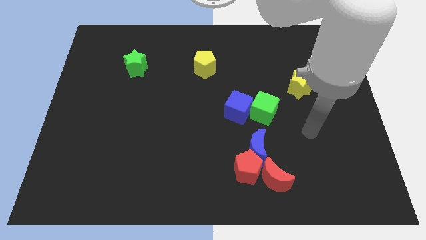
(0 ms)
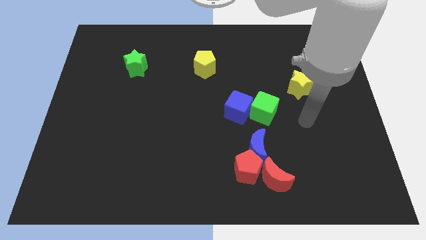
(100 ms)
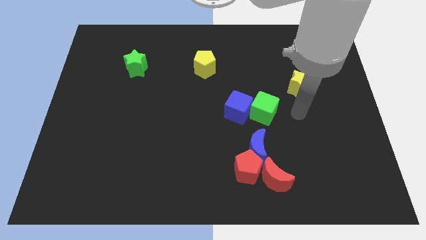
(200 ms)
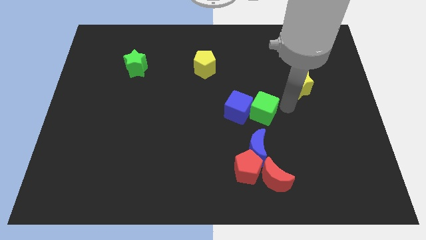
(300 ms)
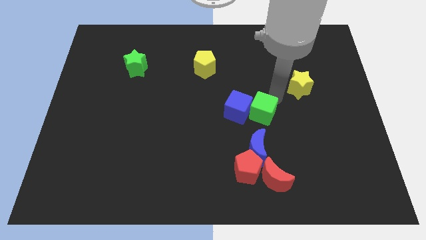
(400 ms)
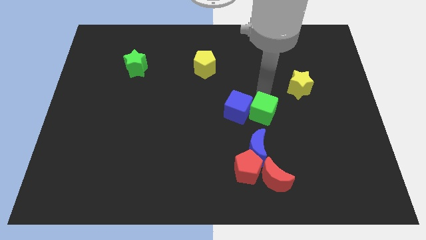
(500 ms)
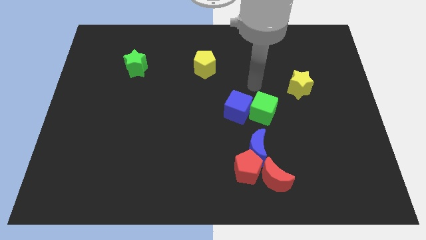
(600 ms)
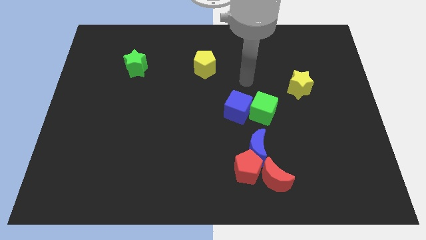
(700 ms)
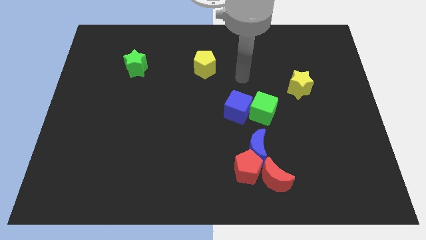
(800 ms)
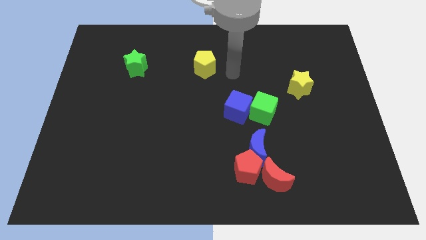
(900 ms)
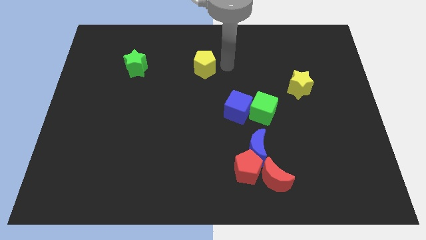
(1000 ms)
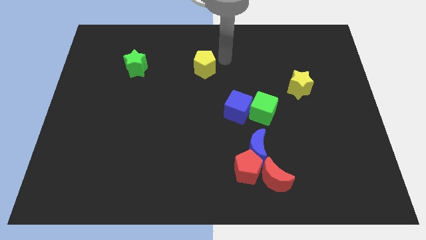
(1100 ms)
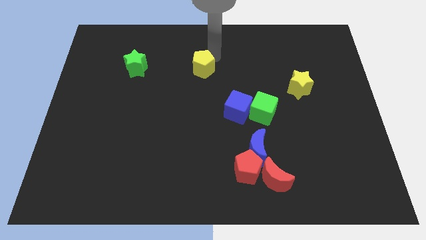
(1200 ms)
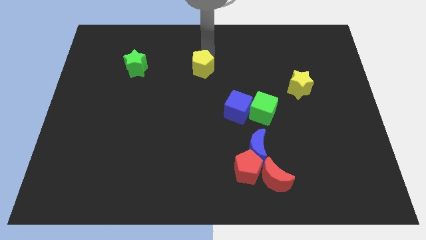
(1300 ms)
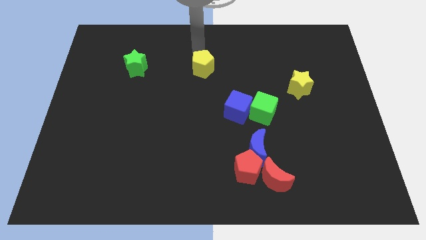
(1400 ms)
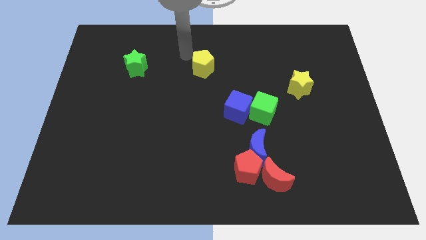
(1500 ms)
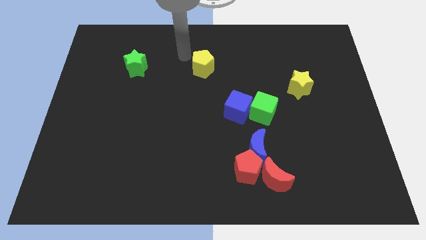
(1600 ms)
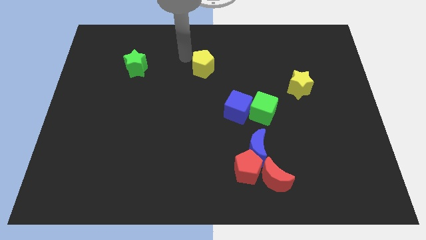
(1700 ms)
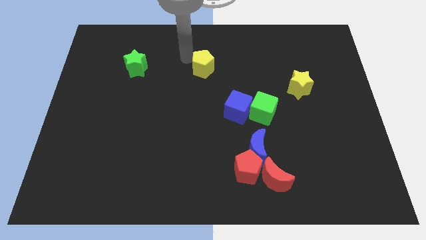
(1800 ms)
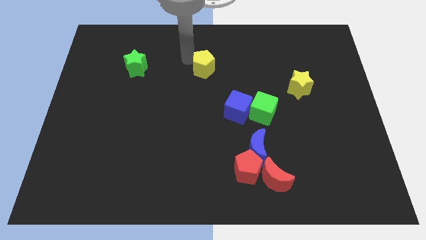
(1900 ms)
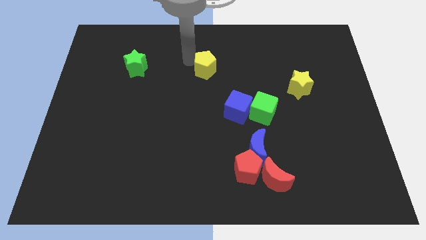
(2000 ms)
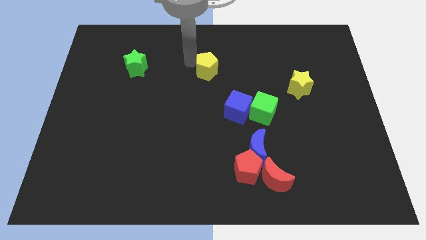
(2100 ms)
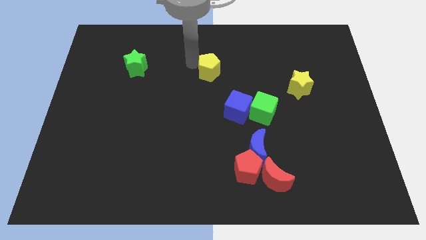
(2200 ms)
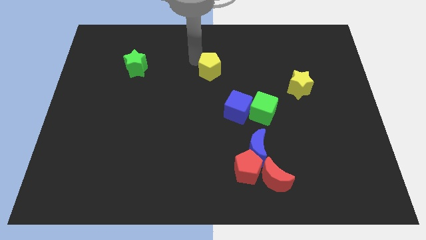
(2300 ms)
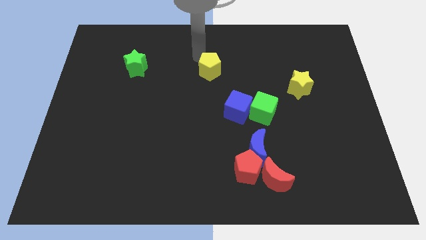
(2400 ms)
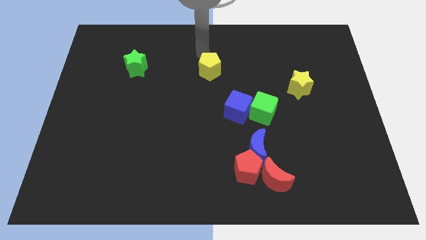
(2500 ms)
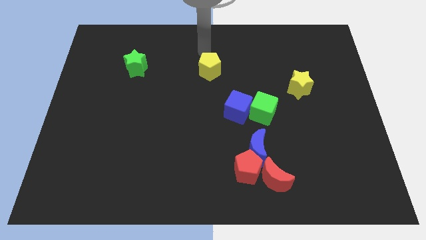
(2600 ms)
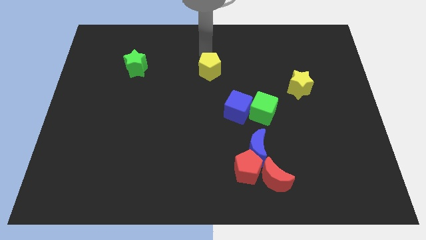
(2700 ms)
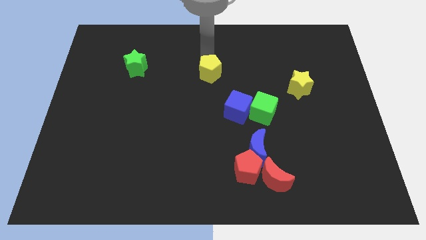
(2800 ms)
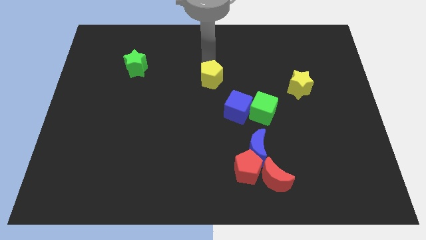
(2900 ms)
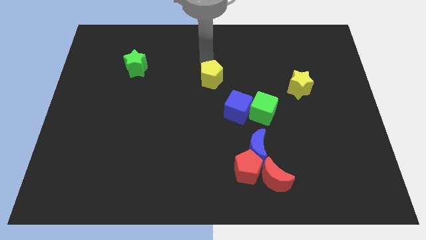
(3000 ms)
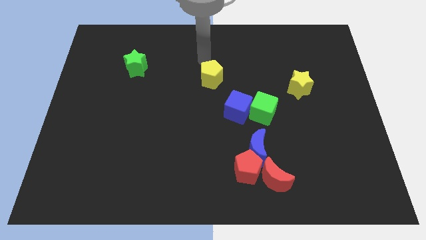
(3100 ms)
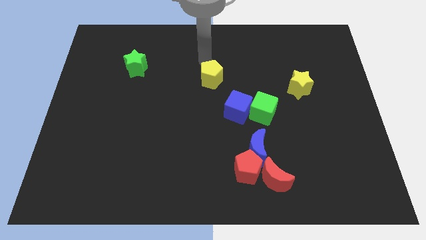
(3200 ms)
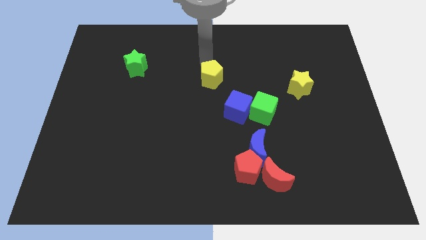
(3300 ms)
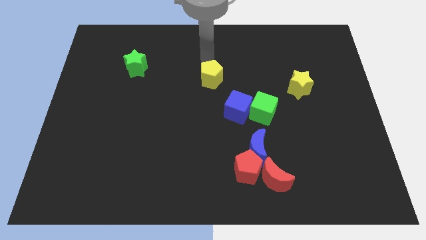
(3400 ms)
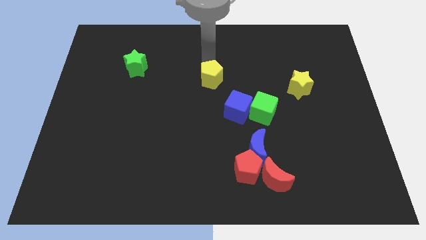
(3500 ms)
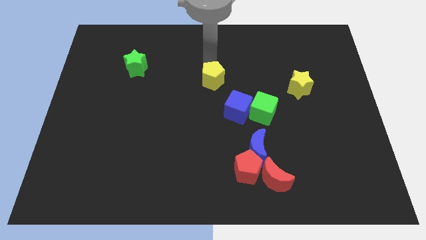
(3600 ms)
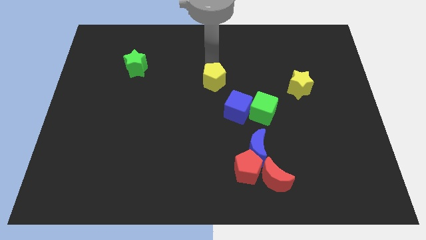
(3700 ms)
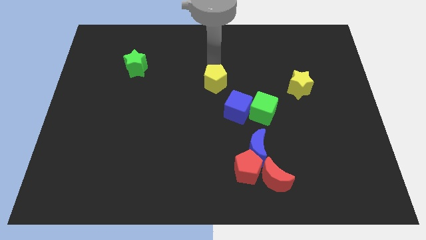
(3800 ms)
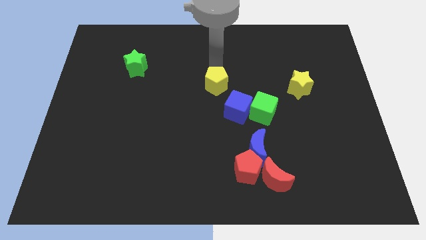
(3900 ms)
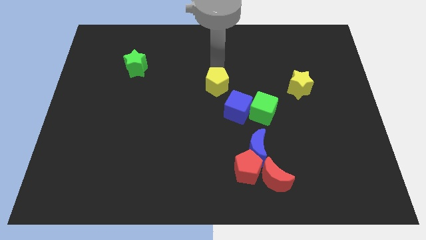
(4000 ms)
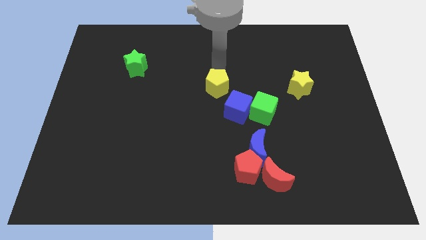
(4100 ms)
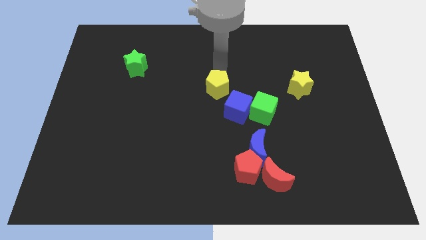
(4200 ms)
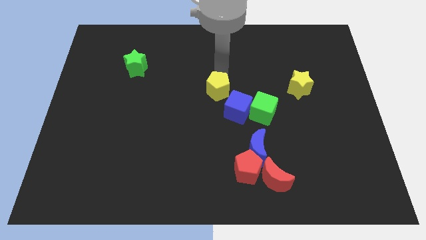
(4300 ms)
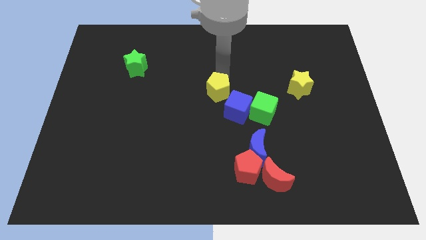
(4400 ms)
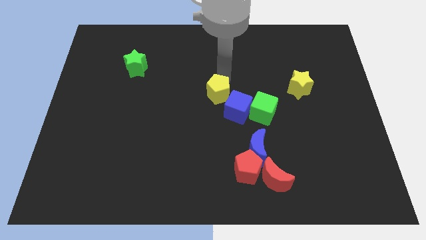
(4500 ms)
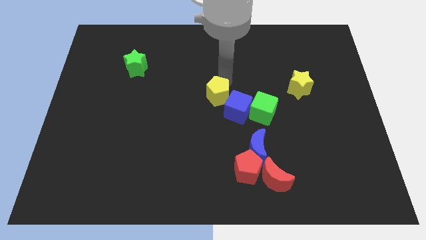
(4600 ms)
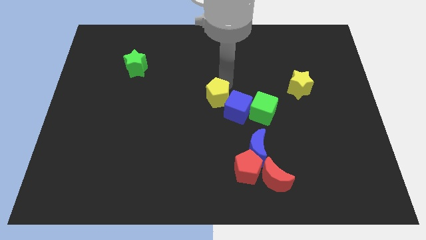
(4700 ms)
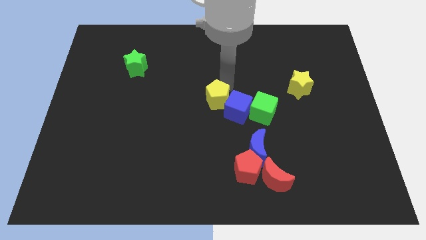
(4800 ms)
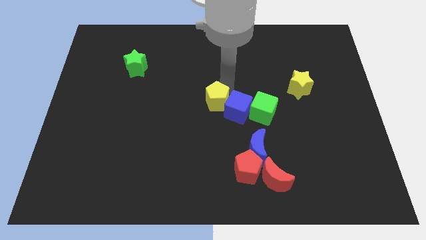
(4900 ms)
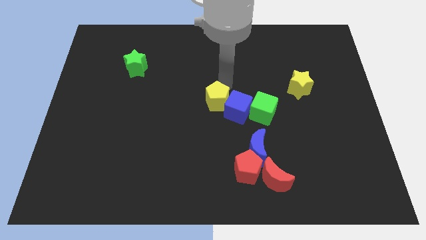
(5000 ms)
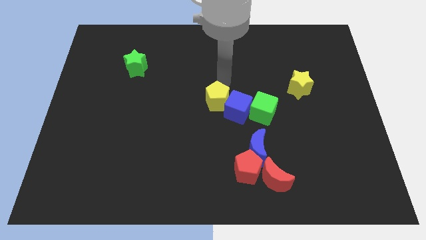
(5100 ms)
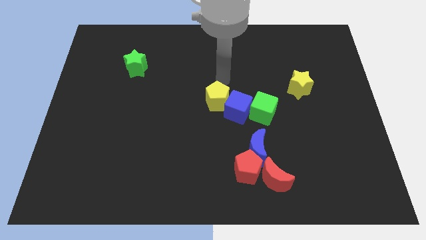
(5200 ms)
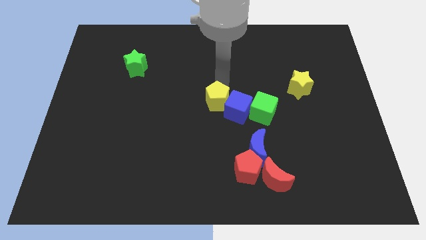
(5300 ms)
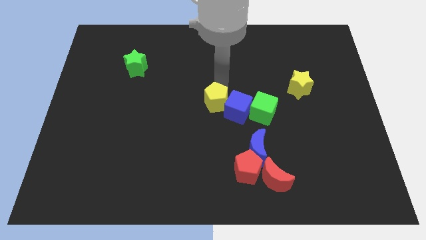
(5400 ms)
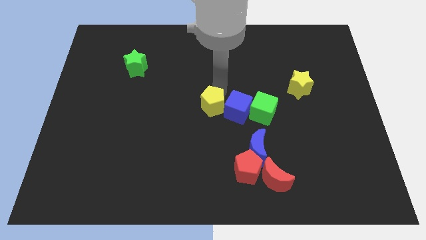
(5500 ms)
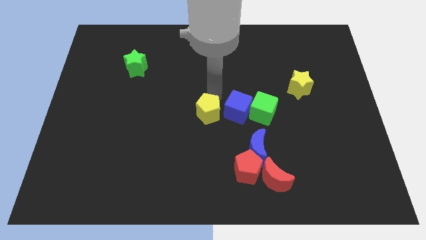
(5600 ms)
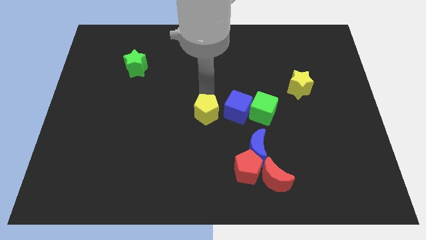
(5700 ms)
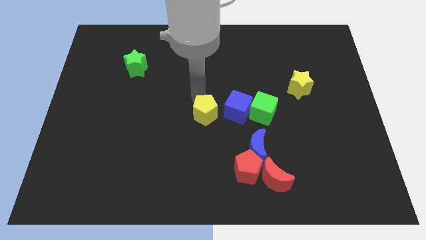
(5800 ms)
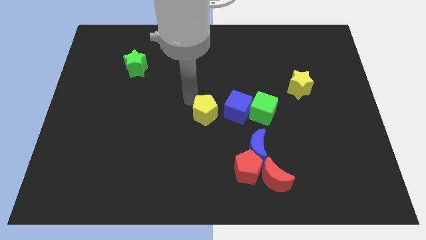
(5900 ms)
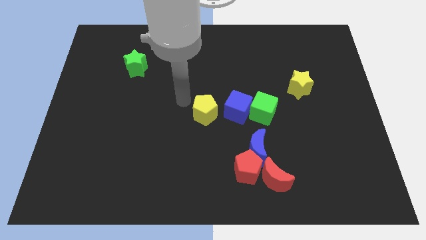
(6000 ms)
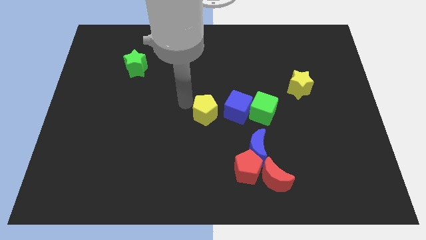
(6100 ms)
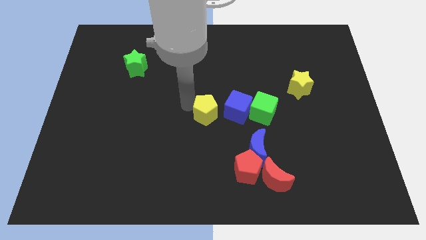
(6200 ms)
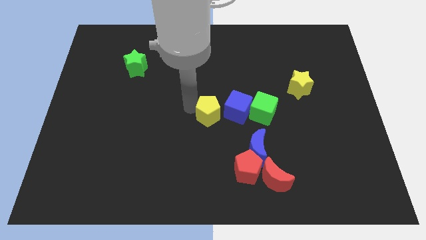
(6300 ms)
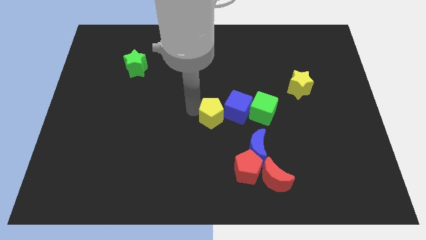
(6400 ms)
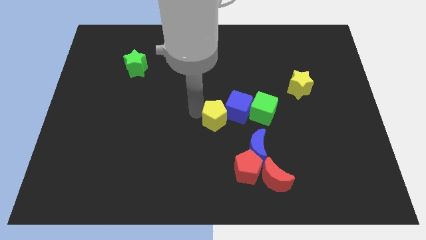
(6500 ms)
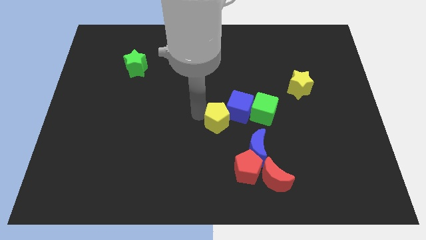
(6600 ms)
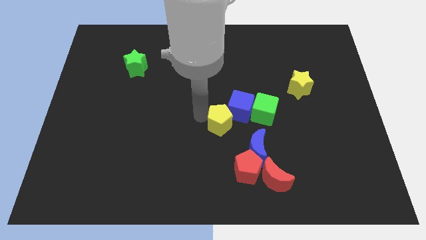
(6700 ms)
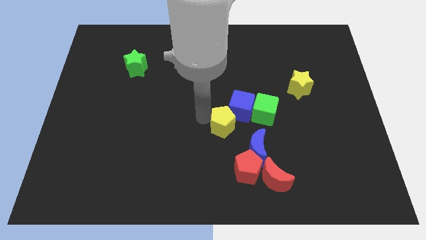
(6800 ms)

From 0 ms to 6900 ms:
push the yellow pentagon to the bottom left side of the green cube
